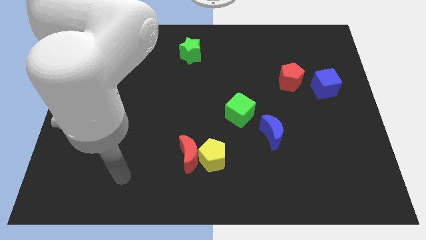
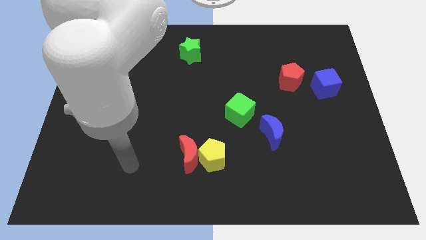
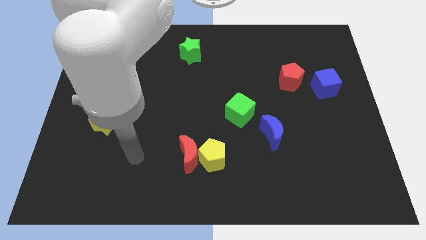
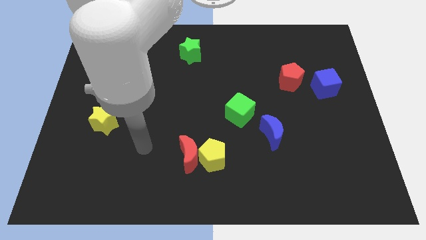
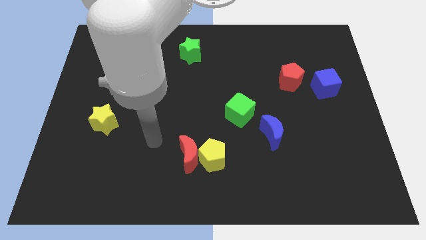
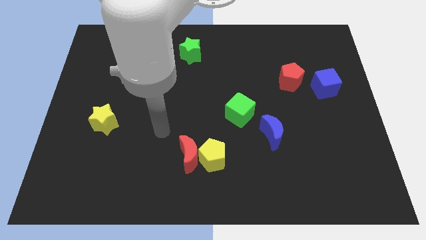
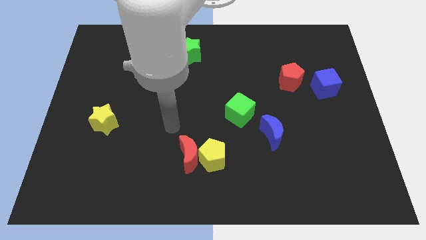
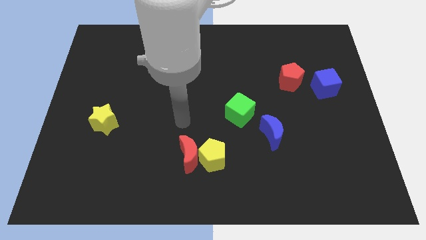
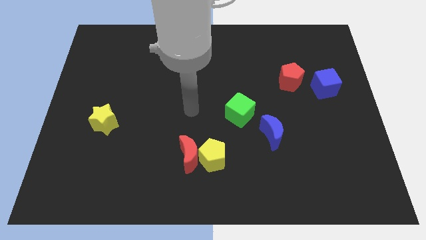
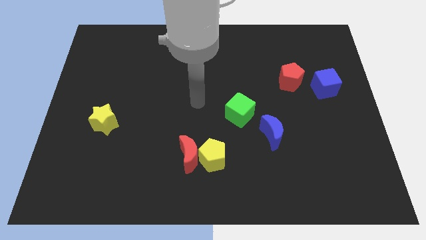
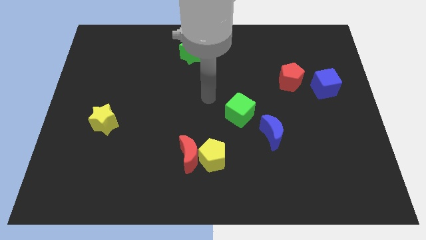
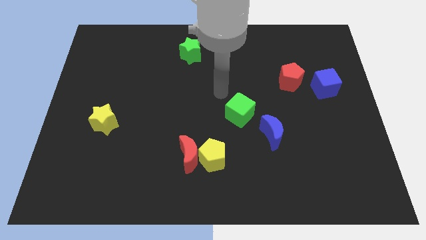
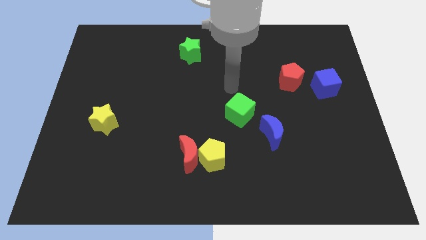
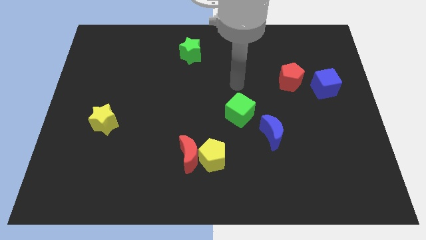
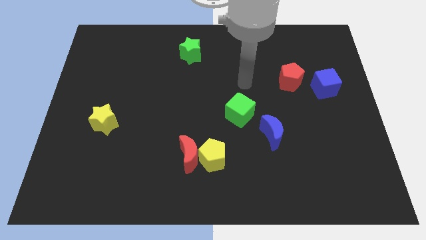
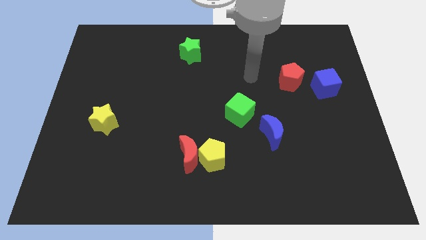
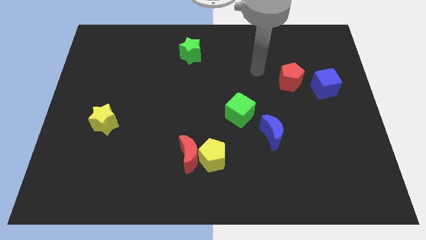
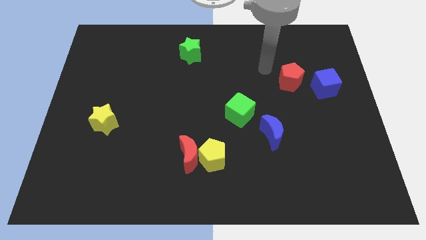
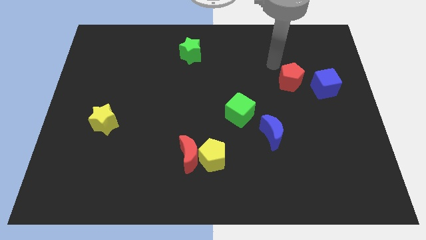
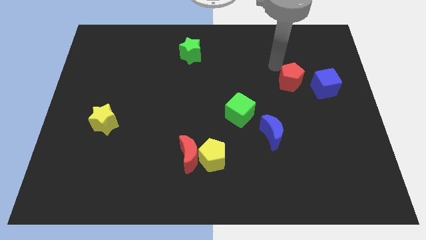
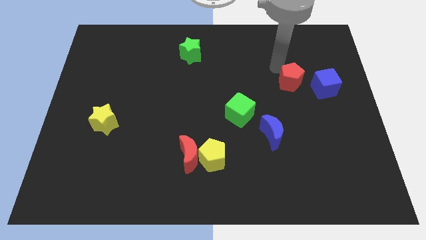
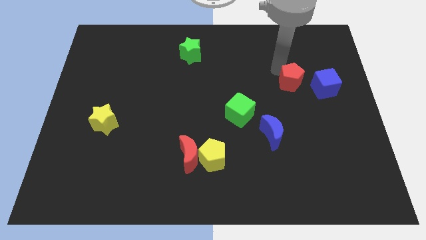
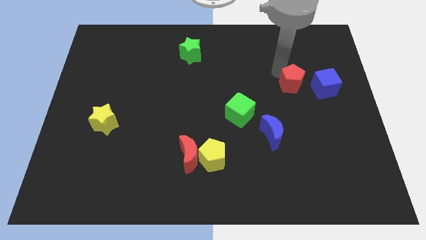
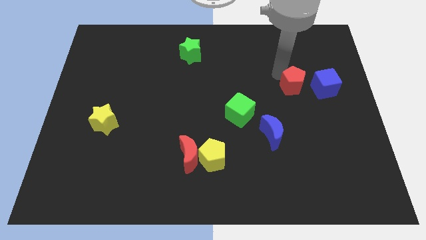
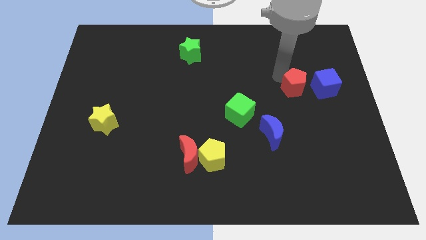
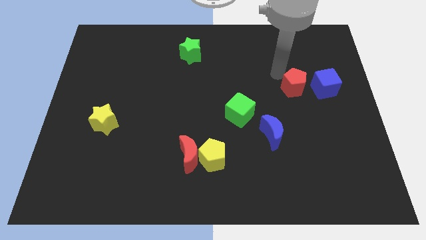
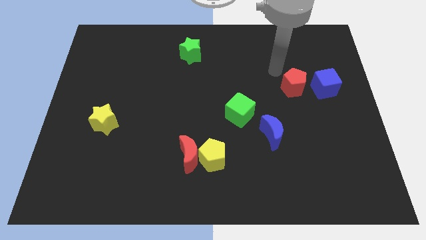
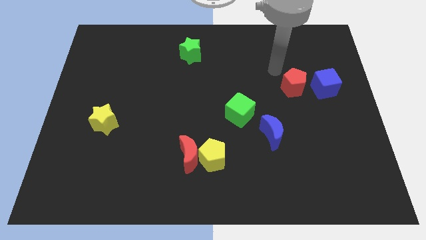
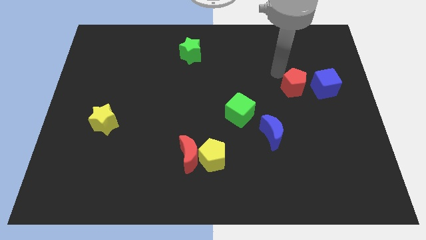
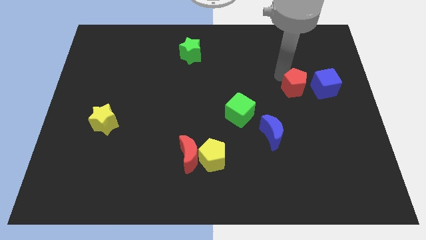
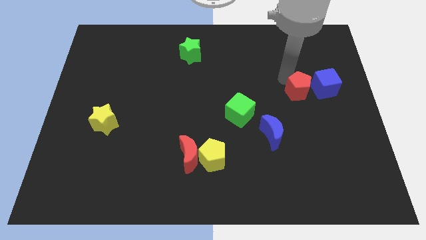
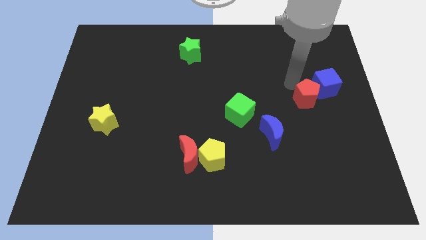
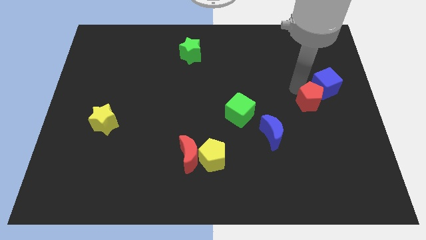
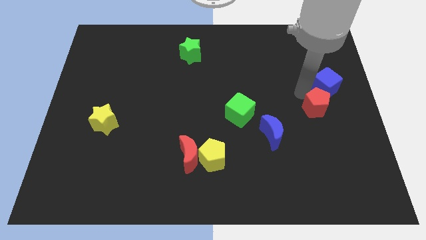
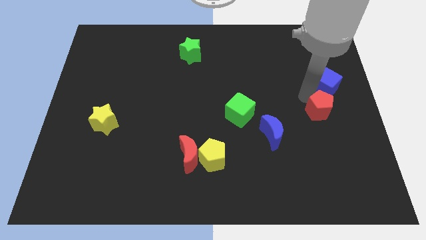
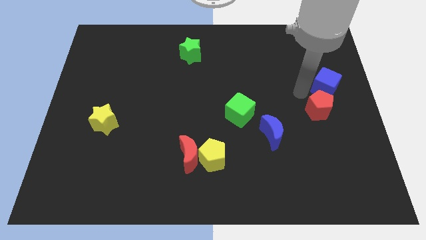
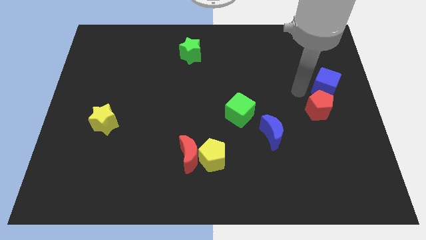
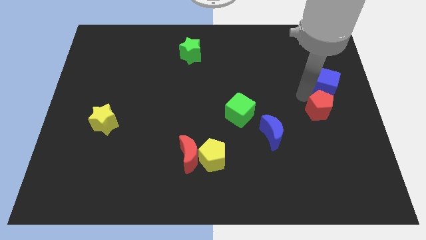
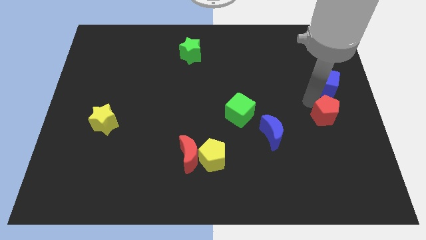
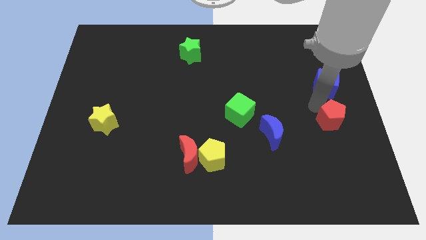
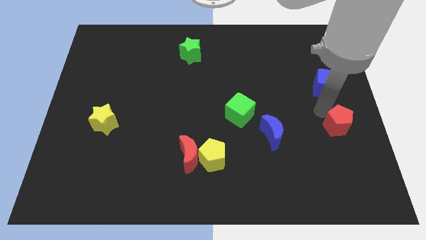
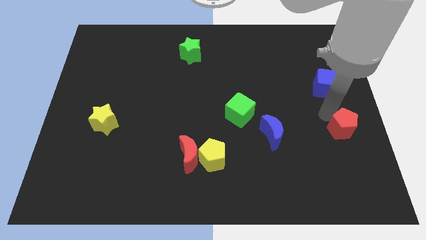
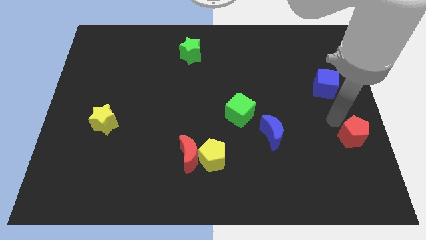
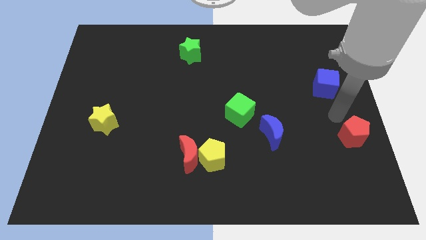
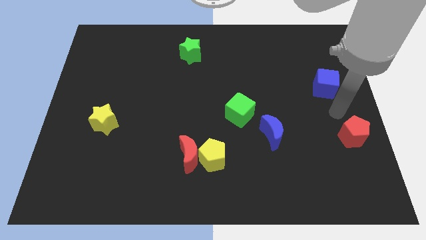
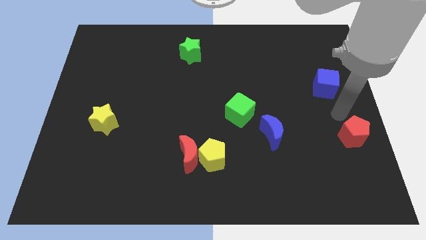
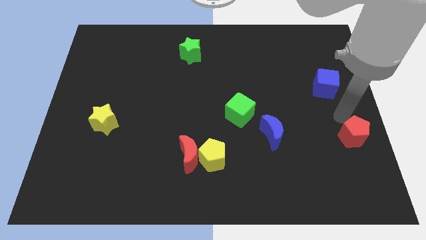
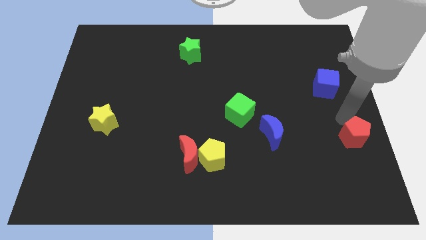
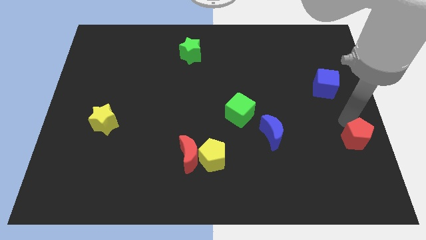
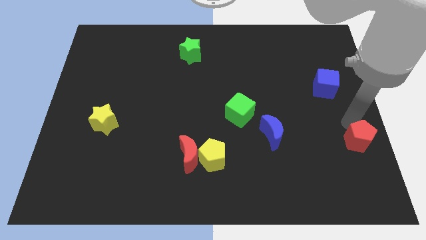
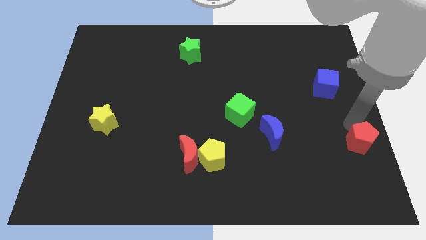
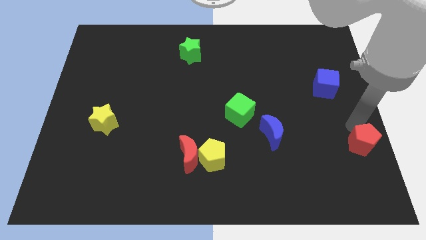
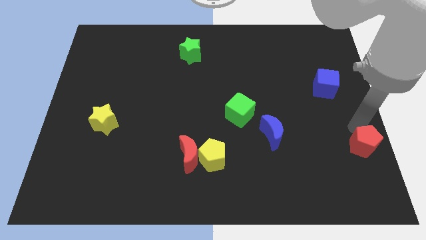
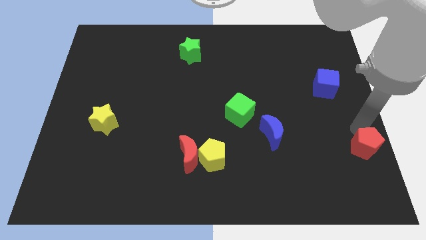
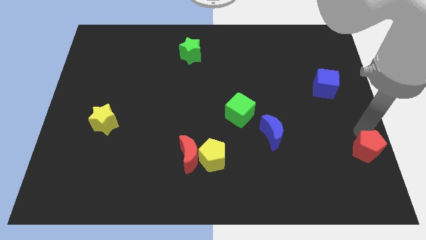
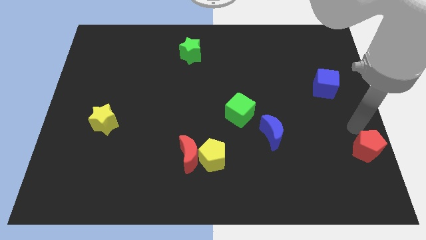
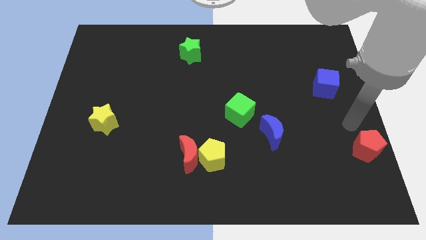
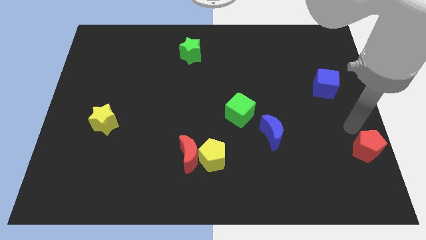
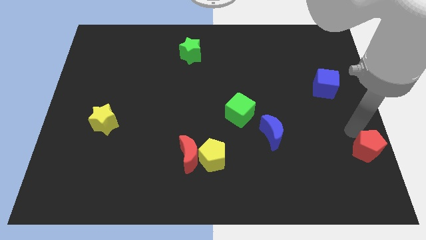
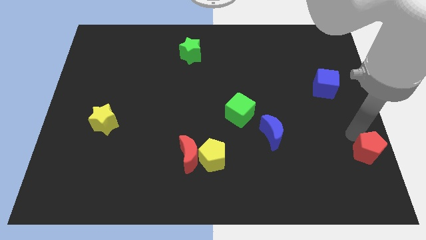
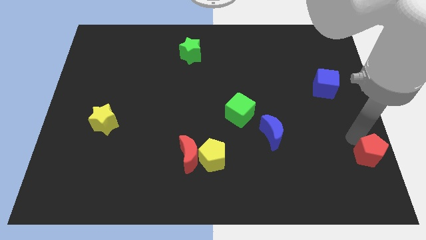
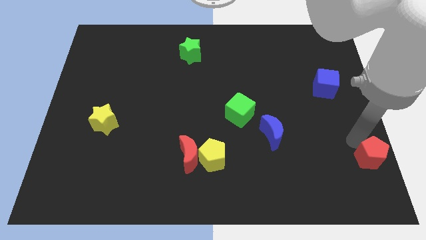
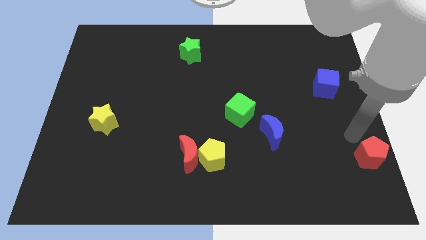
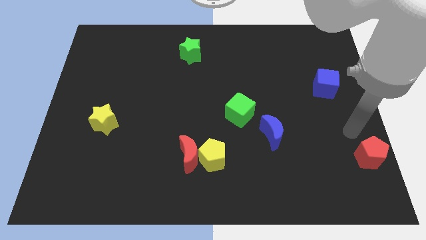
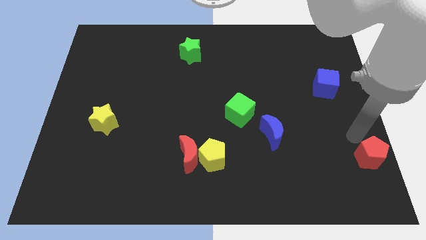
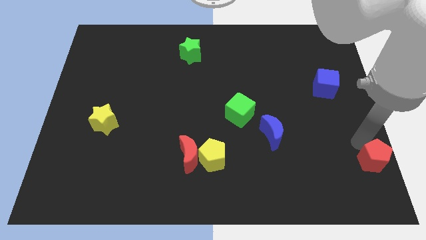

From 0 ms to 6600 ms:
put the red pentagon to the lower right corner

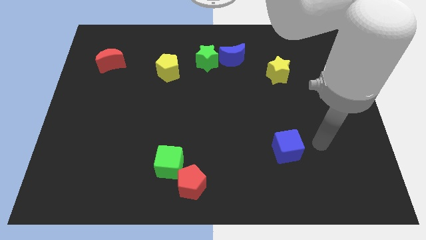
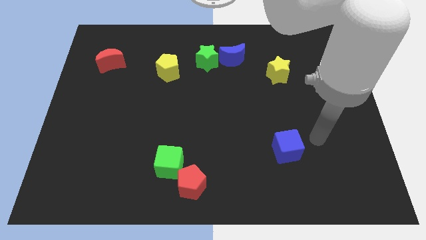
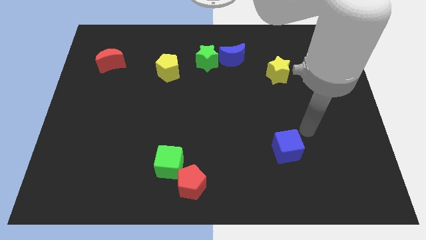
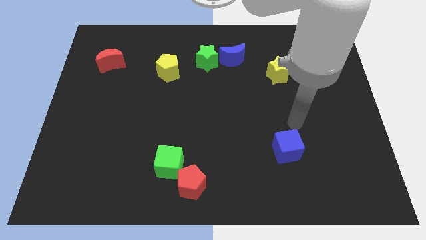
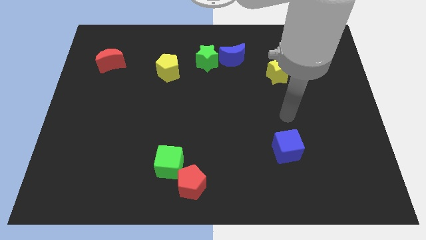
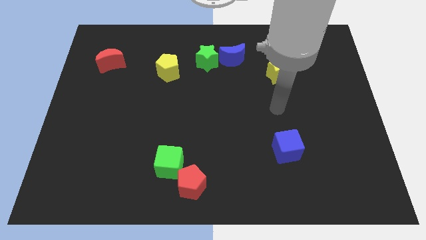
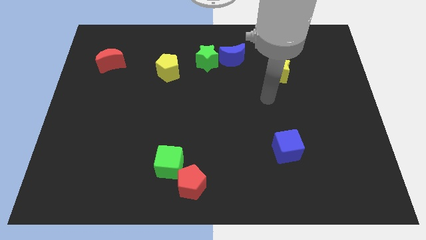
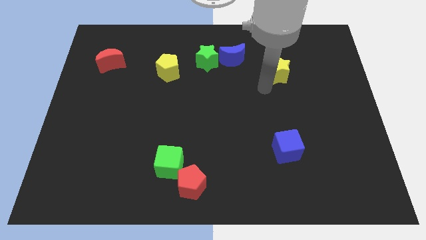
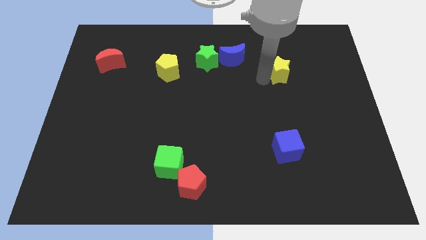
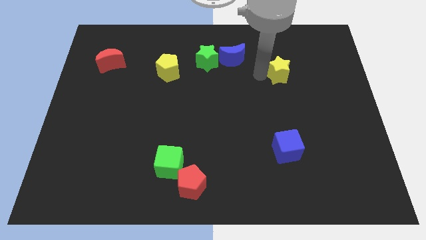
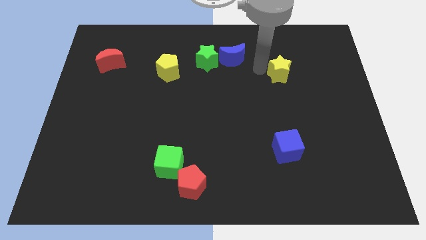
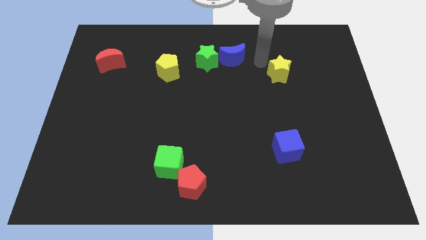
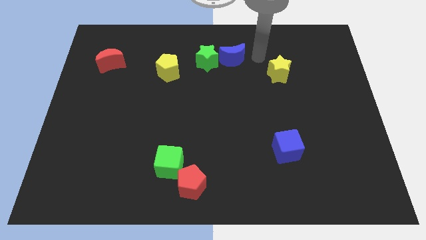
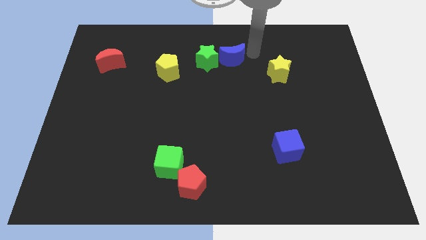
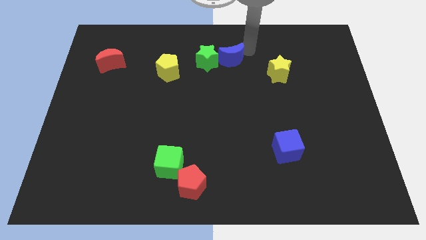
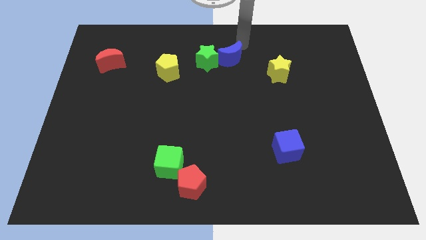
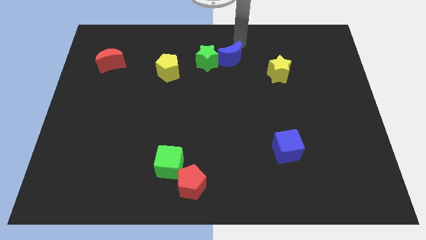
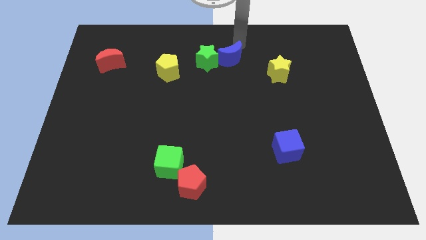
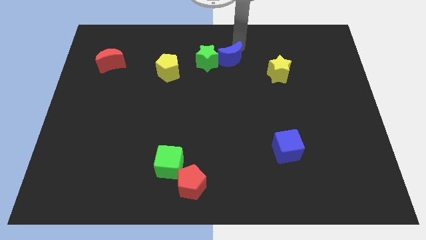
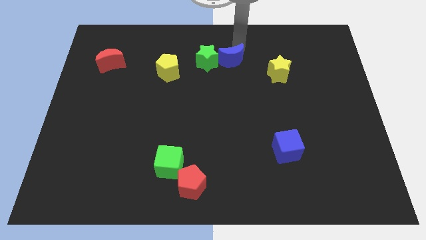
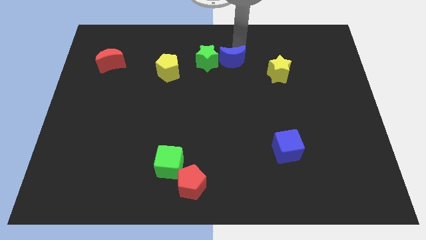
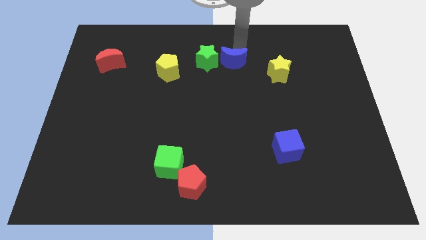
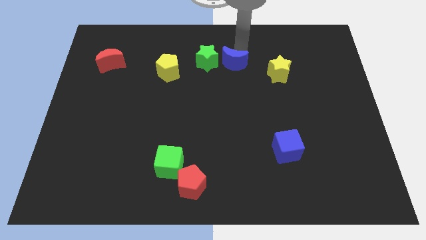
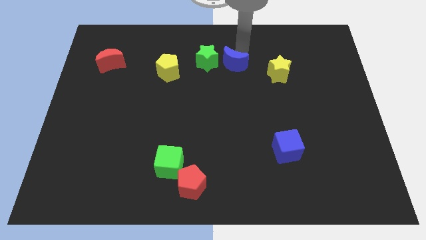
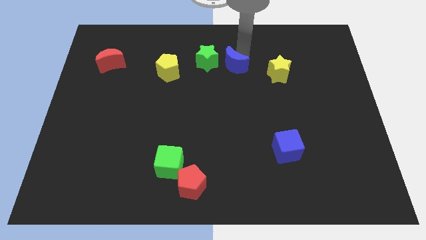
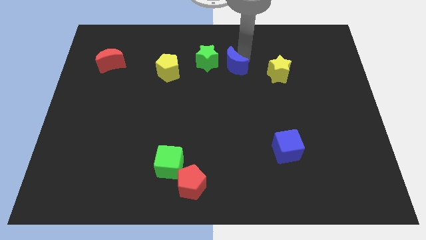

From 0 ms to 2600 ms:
move the blue moon to the center
